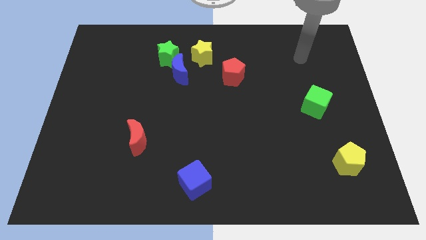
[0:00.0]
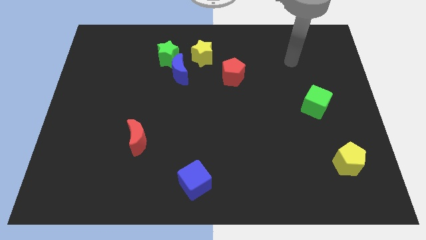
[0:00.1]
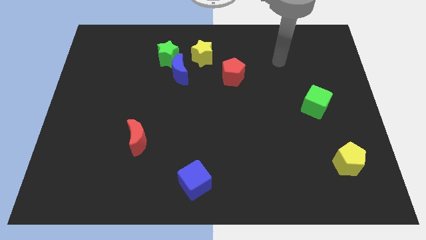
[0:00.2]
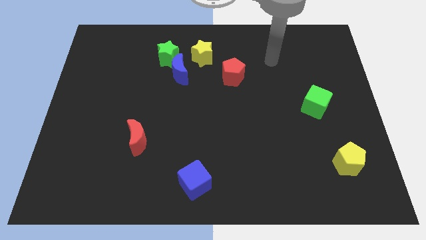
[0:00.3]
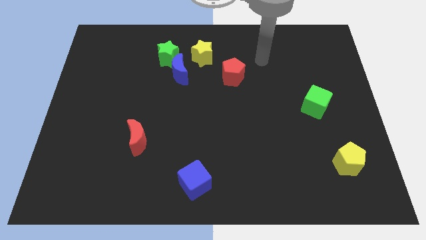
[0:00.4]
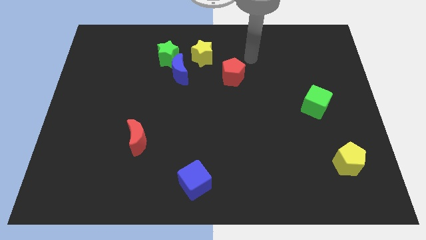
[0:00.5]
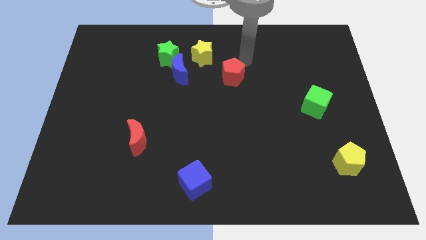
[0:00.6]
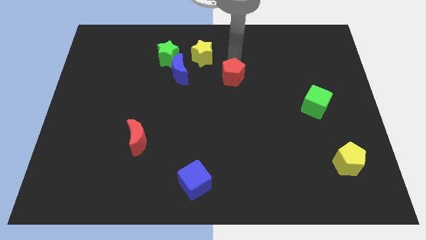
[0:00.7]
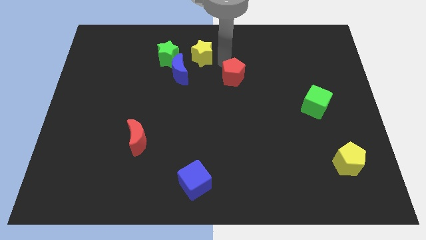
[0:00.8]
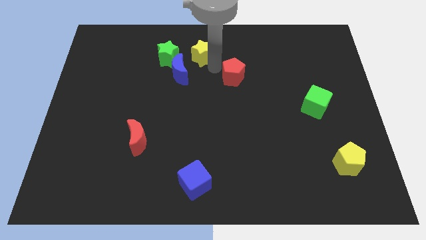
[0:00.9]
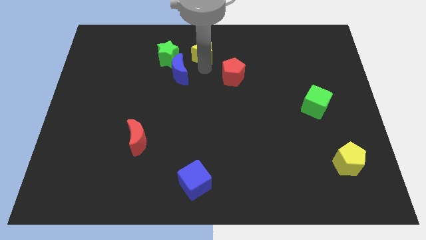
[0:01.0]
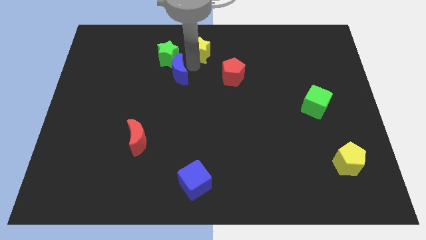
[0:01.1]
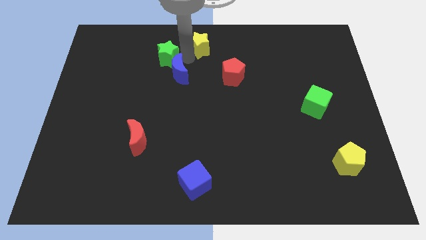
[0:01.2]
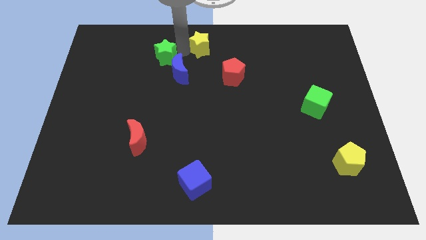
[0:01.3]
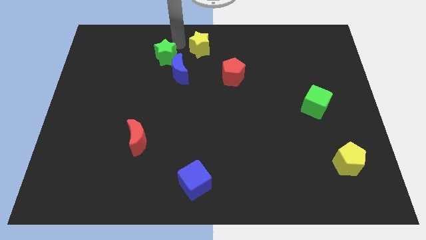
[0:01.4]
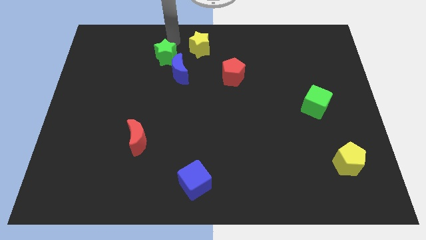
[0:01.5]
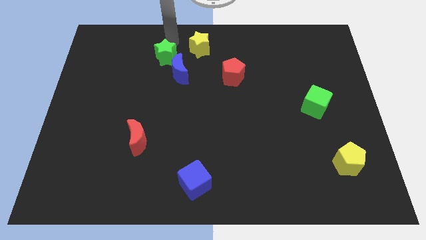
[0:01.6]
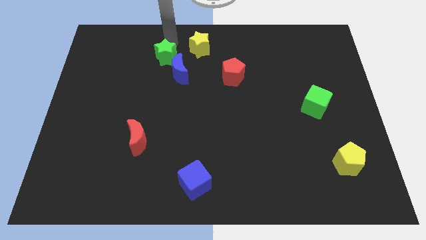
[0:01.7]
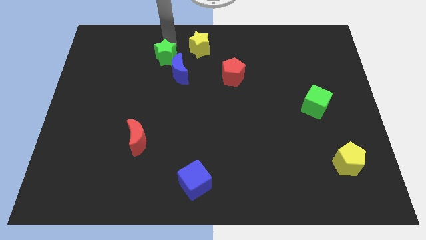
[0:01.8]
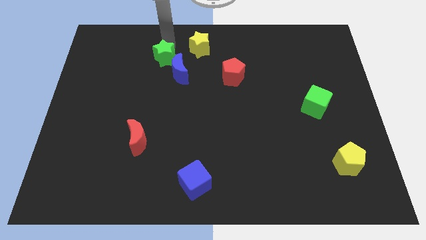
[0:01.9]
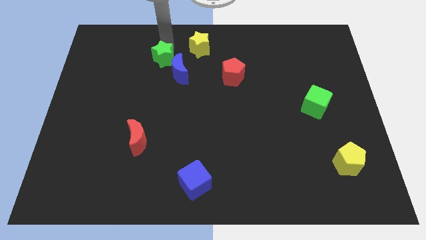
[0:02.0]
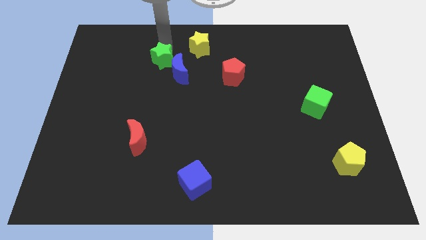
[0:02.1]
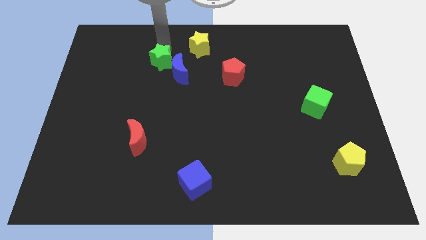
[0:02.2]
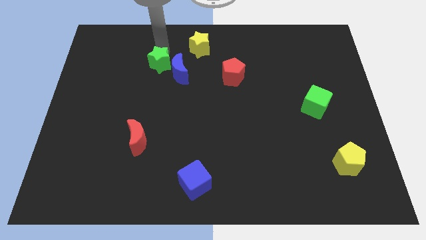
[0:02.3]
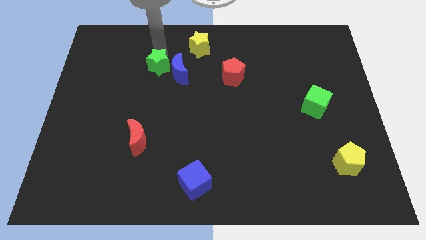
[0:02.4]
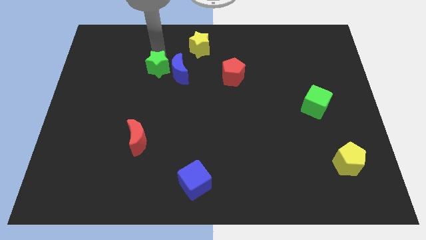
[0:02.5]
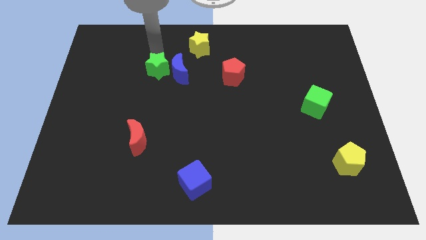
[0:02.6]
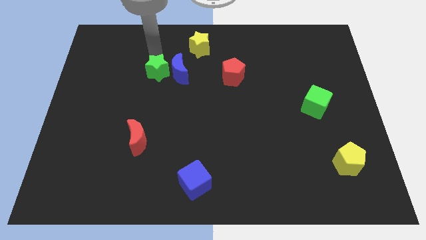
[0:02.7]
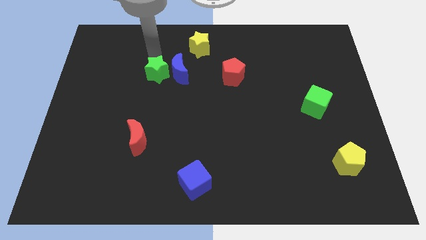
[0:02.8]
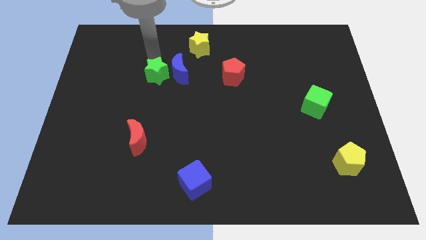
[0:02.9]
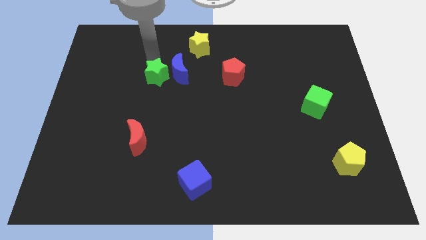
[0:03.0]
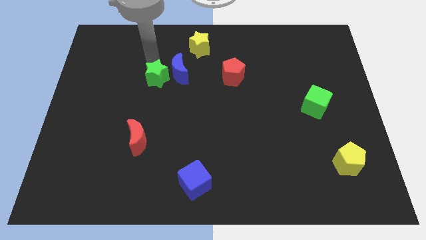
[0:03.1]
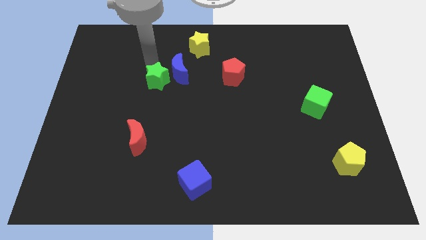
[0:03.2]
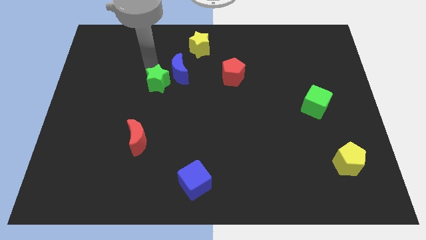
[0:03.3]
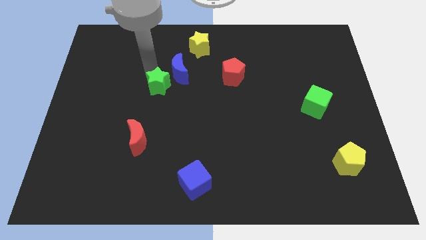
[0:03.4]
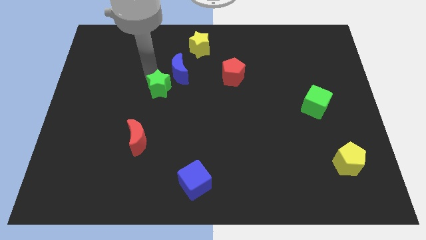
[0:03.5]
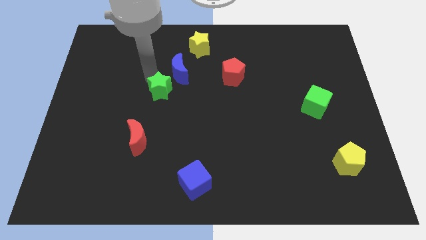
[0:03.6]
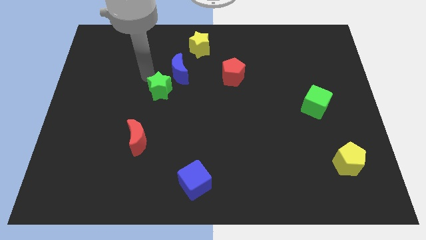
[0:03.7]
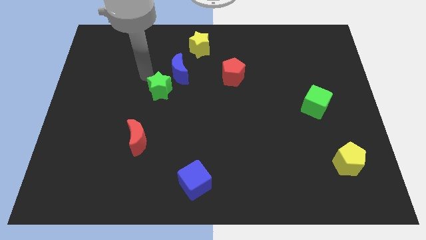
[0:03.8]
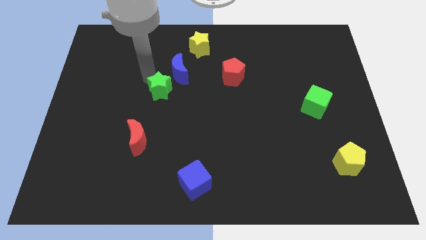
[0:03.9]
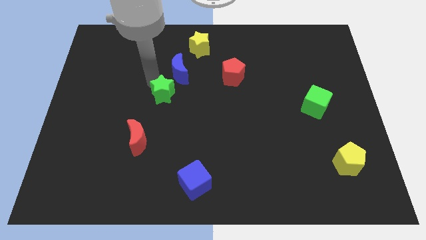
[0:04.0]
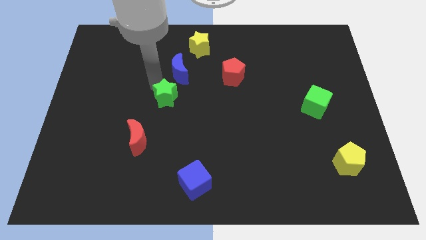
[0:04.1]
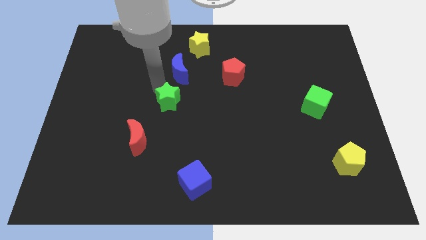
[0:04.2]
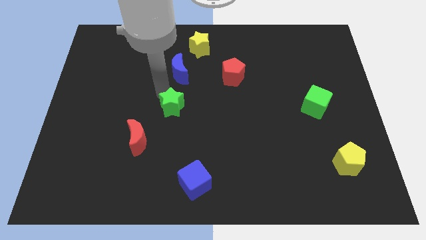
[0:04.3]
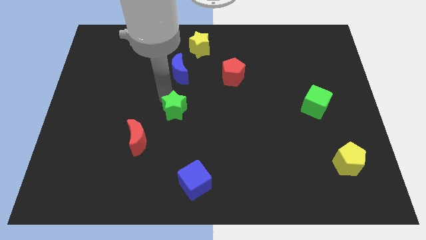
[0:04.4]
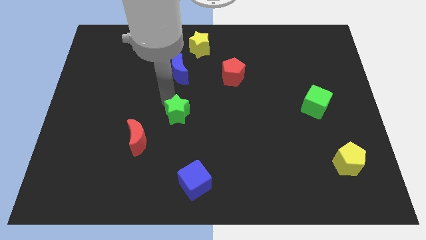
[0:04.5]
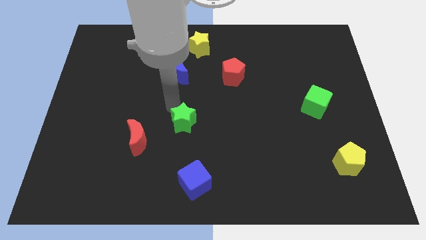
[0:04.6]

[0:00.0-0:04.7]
move the green star above the blue cube

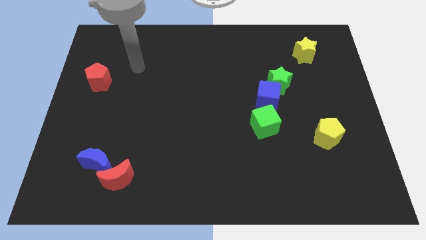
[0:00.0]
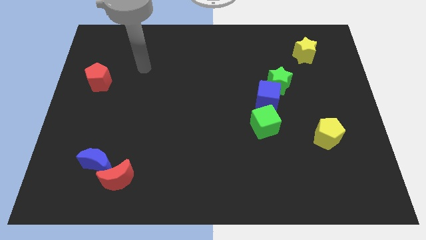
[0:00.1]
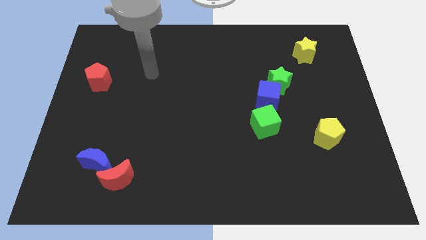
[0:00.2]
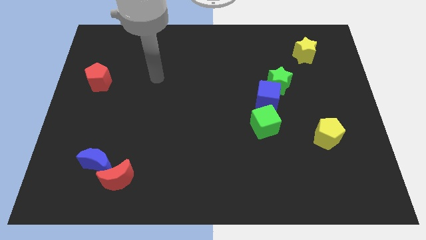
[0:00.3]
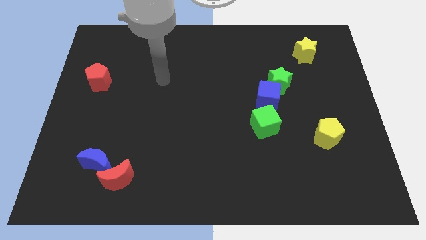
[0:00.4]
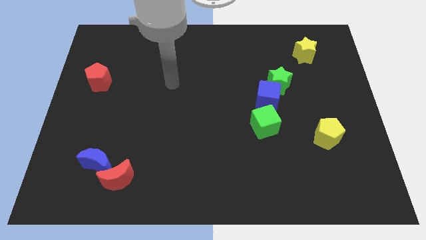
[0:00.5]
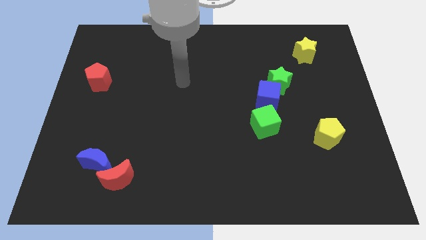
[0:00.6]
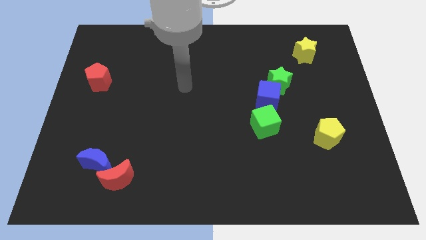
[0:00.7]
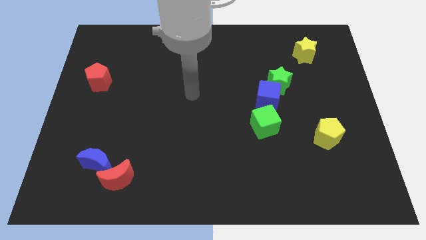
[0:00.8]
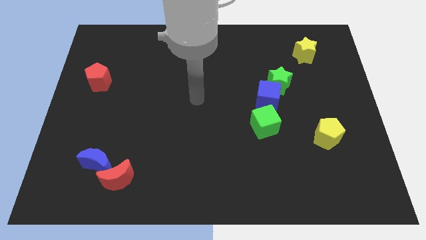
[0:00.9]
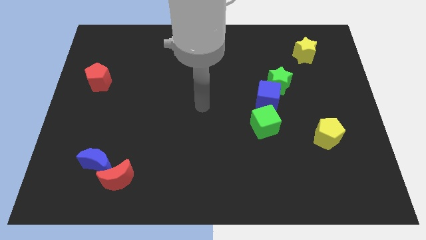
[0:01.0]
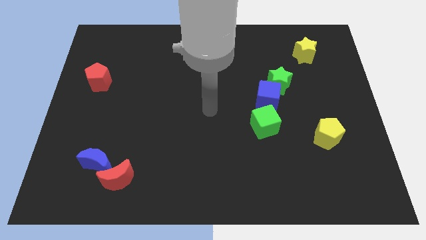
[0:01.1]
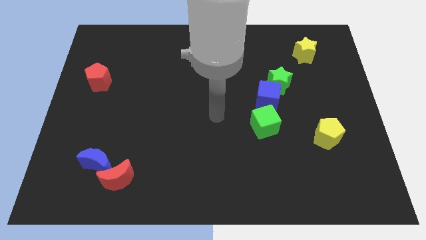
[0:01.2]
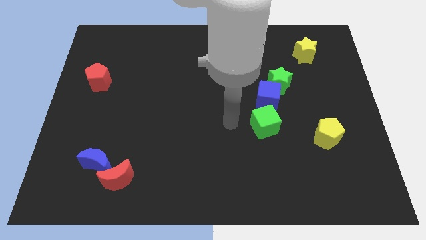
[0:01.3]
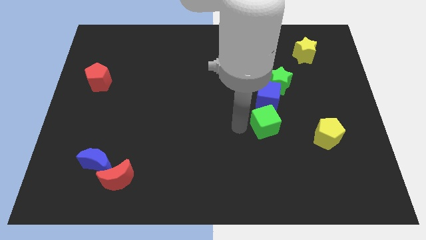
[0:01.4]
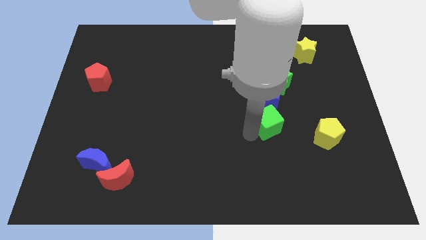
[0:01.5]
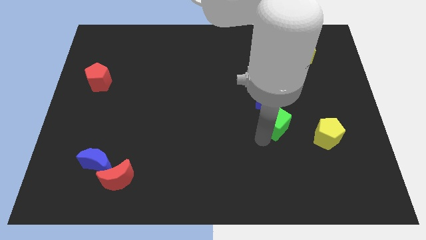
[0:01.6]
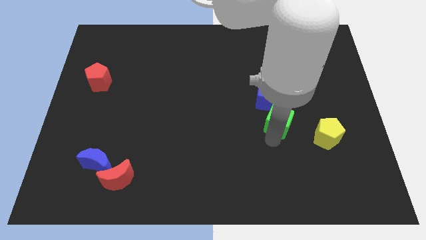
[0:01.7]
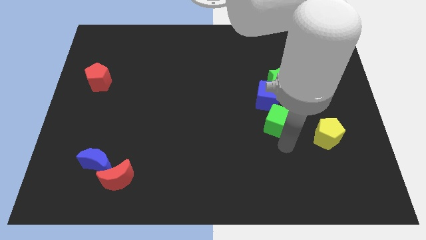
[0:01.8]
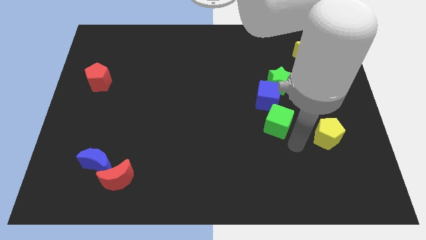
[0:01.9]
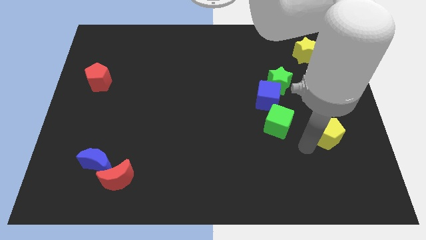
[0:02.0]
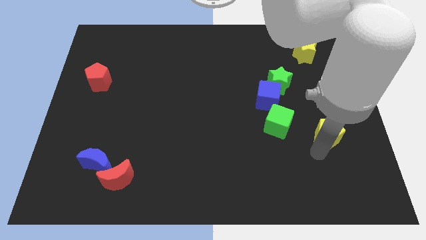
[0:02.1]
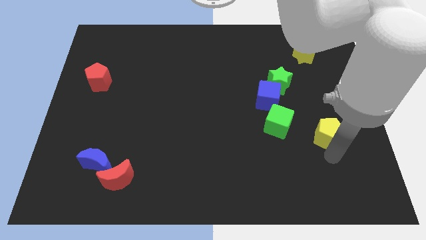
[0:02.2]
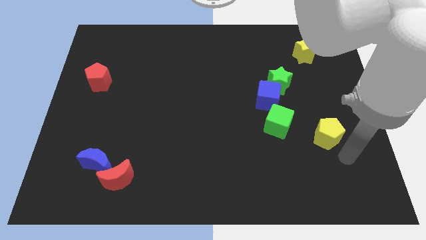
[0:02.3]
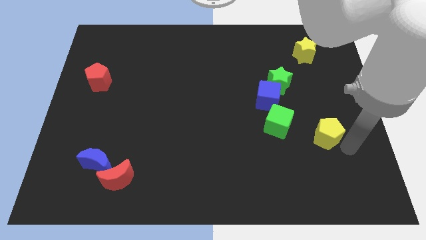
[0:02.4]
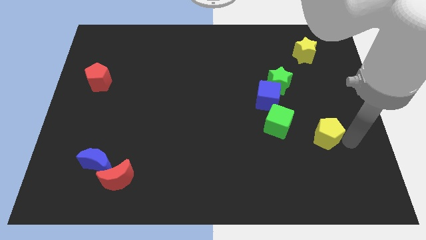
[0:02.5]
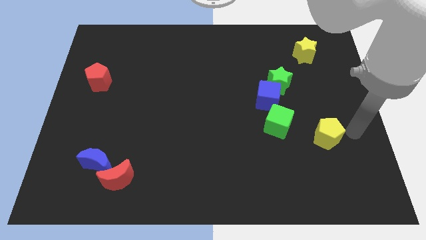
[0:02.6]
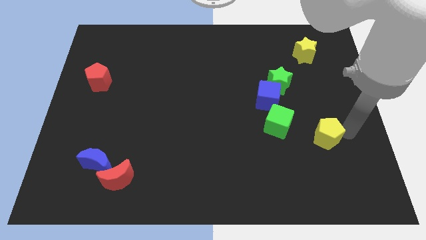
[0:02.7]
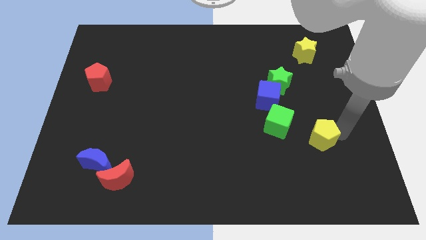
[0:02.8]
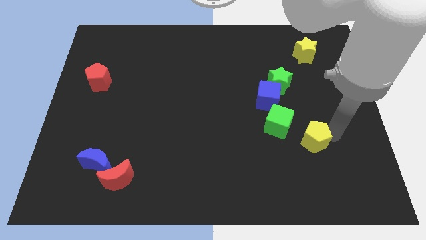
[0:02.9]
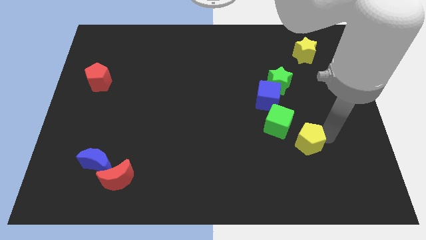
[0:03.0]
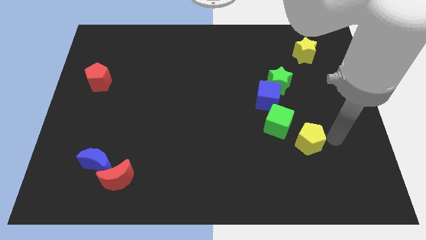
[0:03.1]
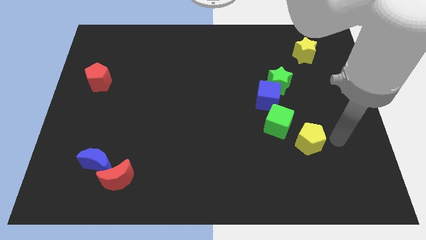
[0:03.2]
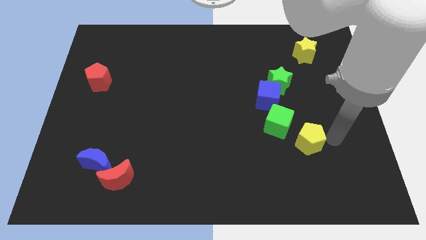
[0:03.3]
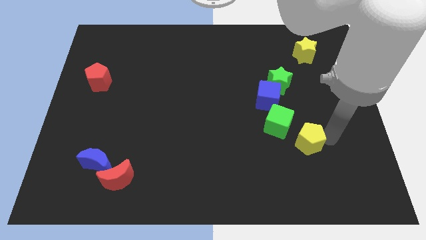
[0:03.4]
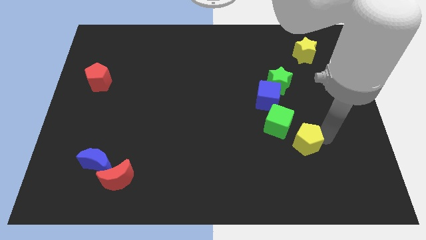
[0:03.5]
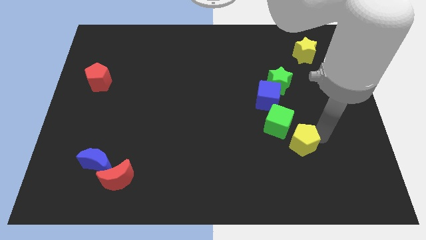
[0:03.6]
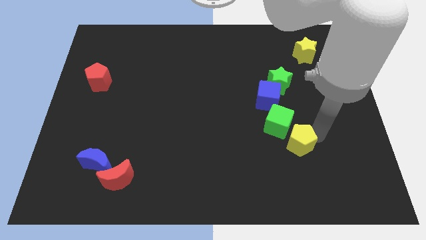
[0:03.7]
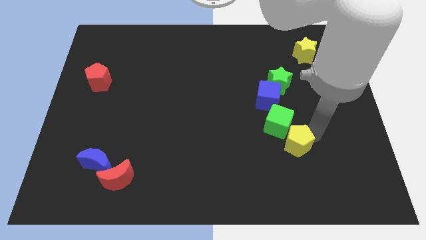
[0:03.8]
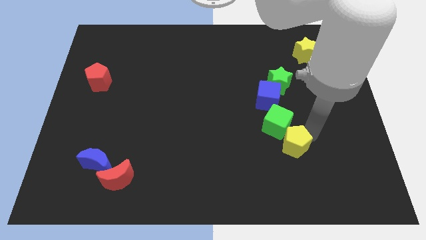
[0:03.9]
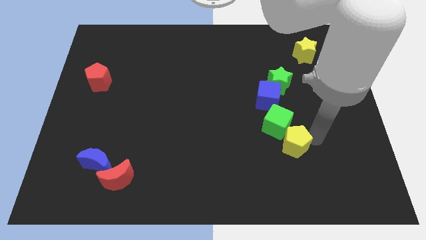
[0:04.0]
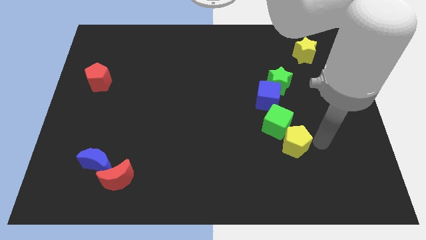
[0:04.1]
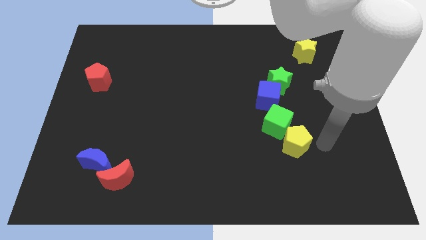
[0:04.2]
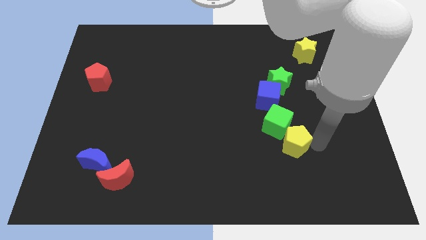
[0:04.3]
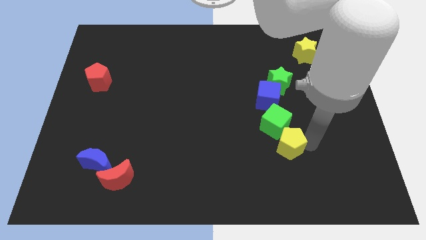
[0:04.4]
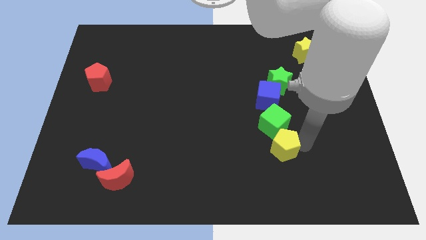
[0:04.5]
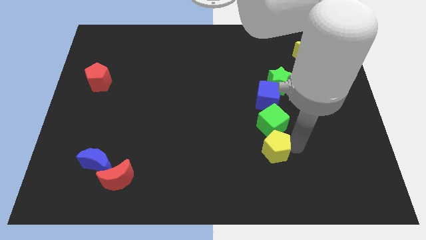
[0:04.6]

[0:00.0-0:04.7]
push the yellow pentagon diagonally down and to the left of the green cube
